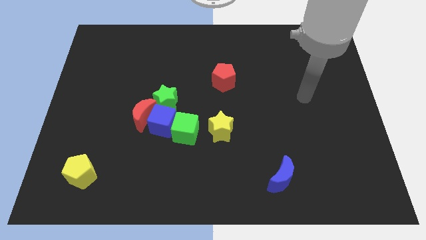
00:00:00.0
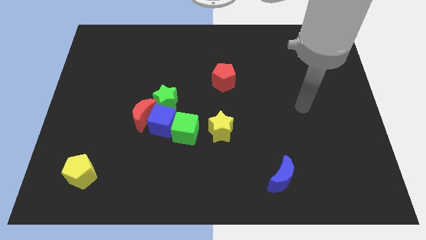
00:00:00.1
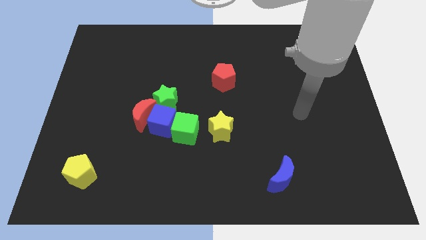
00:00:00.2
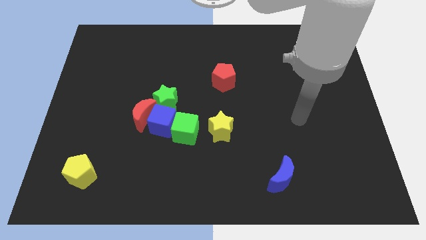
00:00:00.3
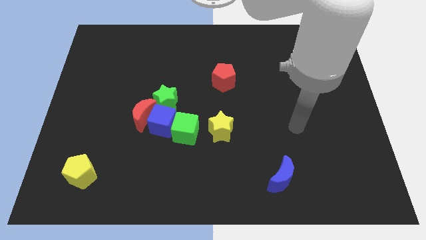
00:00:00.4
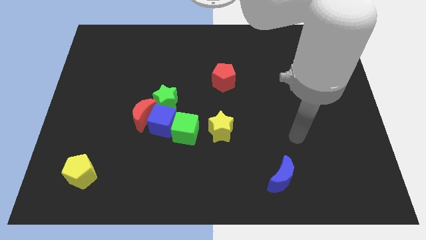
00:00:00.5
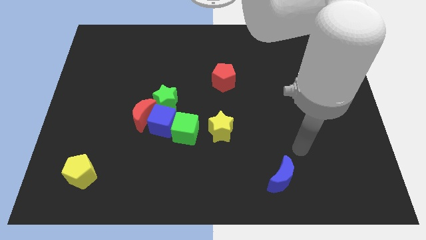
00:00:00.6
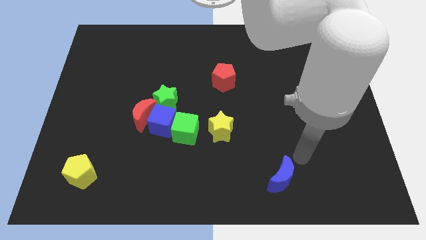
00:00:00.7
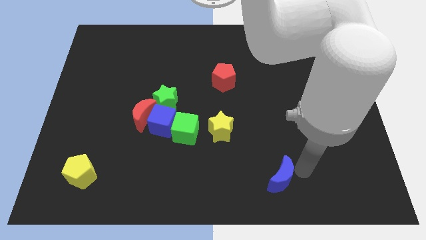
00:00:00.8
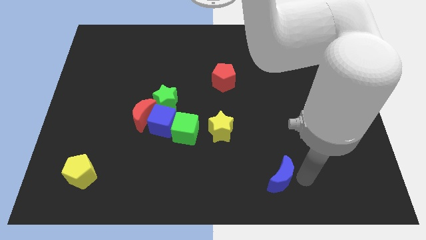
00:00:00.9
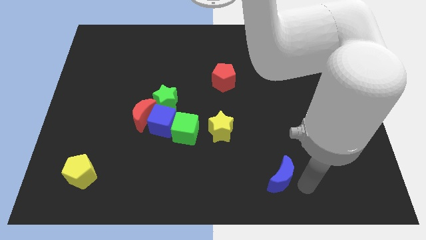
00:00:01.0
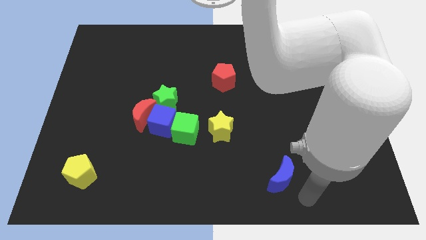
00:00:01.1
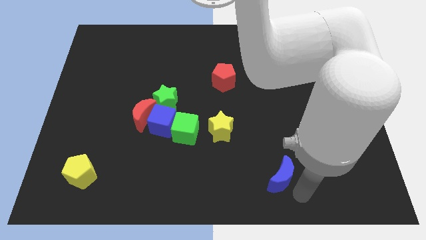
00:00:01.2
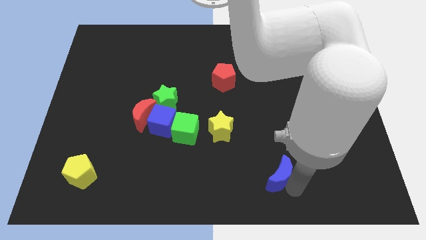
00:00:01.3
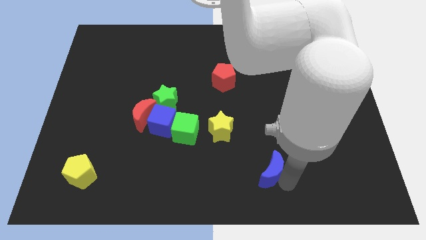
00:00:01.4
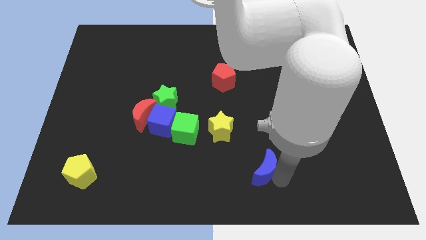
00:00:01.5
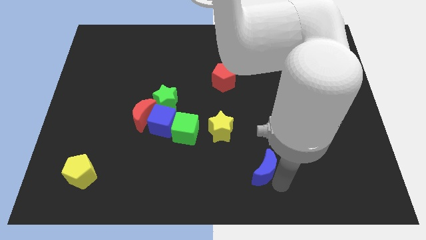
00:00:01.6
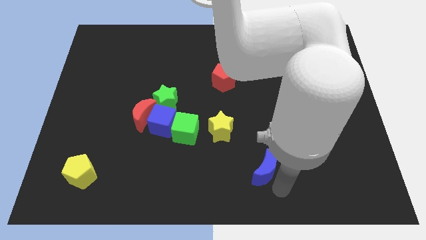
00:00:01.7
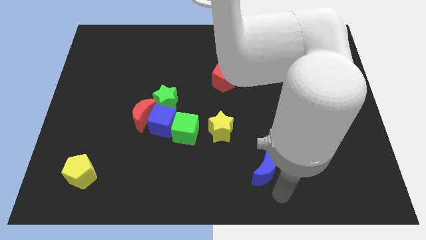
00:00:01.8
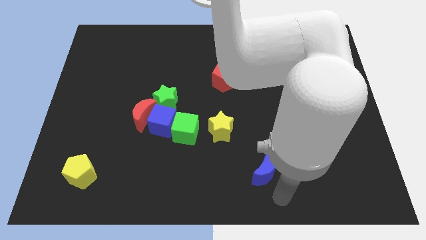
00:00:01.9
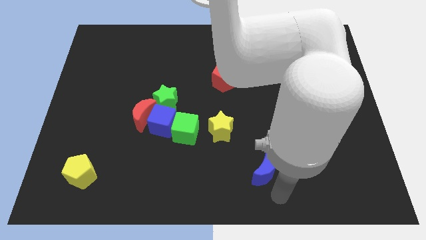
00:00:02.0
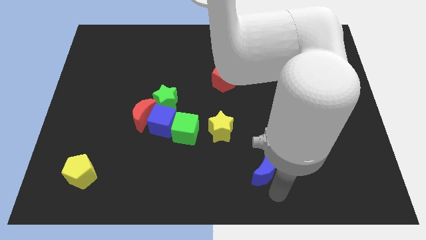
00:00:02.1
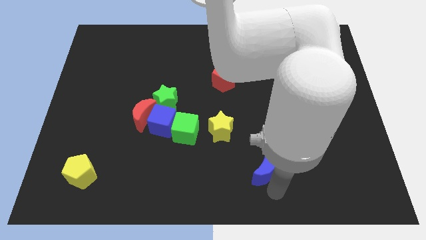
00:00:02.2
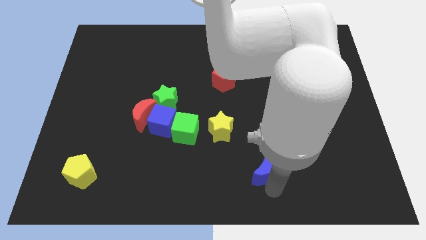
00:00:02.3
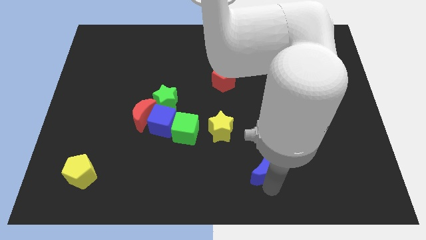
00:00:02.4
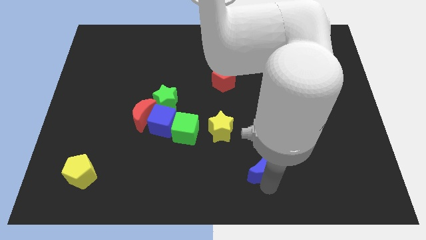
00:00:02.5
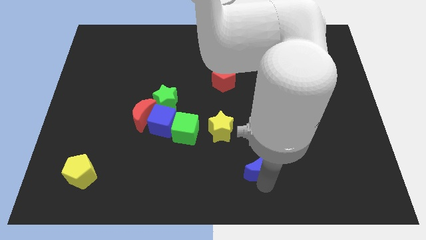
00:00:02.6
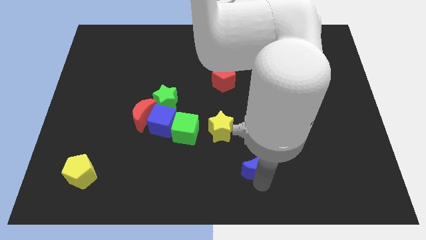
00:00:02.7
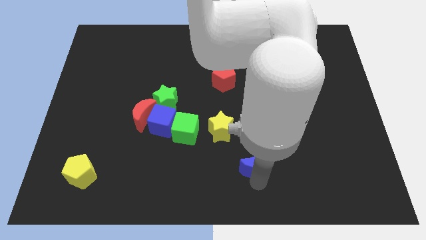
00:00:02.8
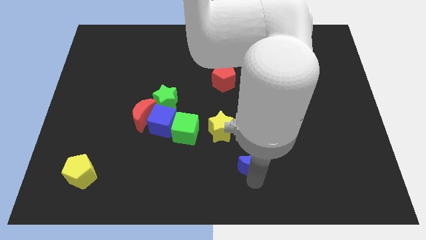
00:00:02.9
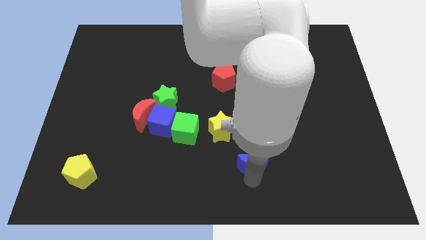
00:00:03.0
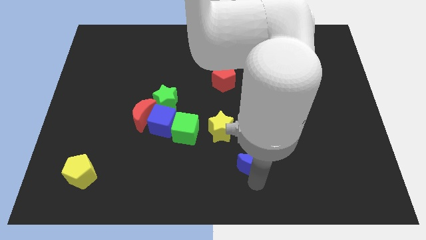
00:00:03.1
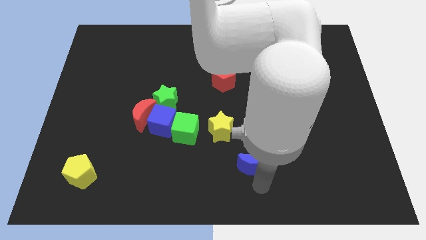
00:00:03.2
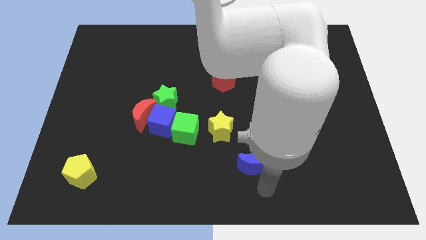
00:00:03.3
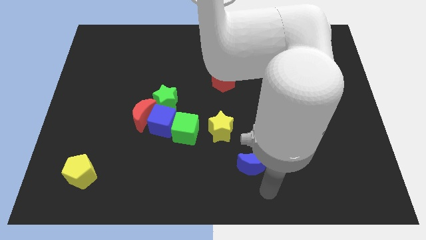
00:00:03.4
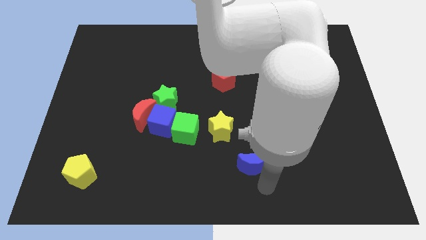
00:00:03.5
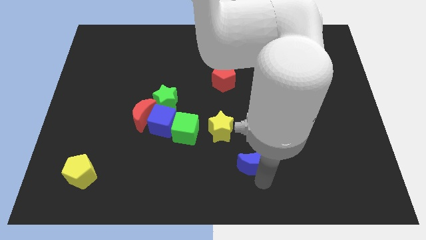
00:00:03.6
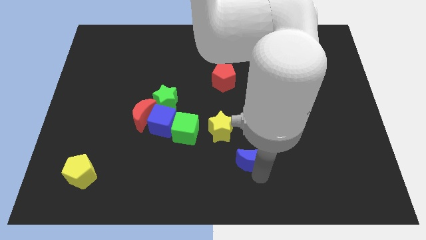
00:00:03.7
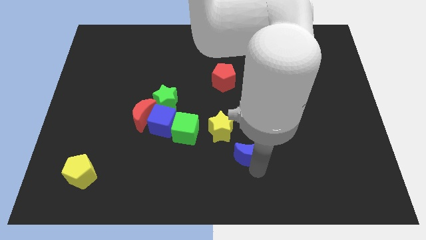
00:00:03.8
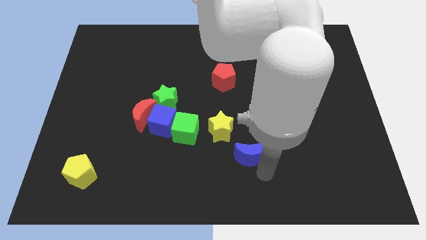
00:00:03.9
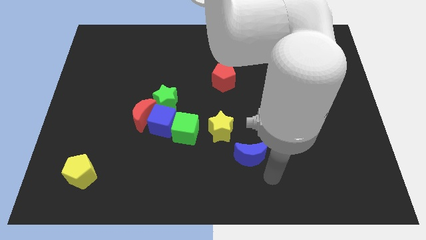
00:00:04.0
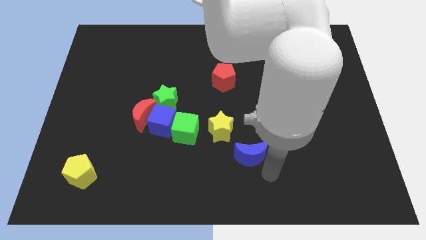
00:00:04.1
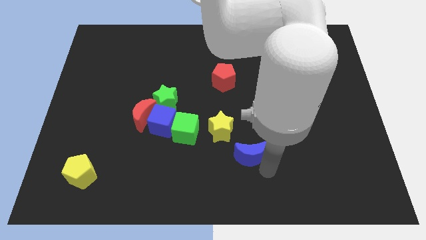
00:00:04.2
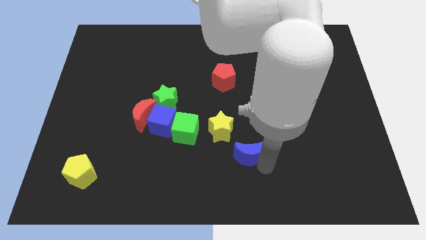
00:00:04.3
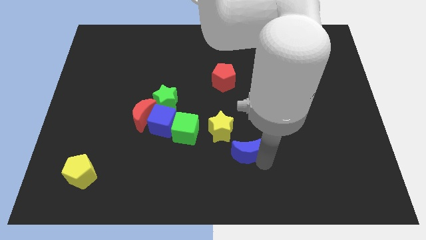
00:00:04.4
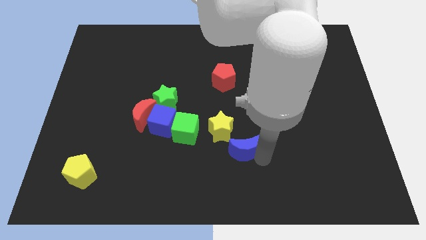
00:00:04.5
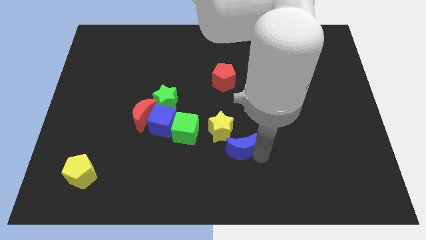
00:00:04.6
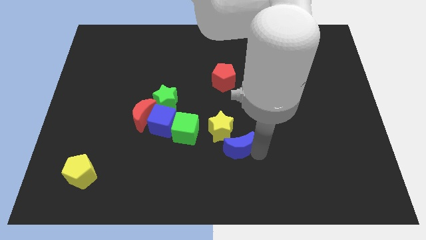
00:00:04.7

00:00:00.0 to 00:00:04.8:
move the blue moon next to the yellow star

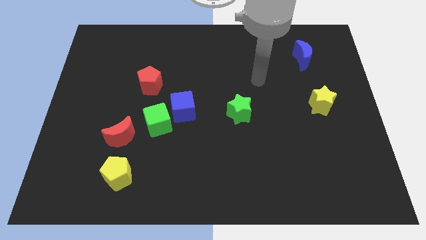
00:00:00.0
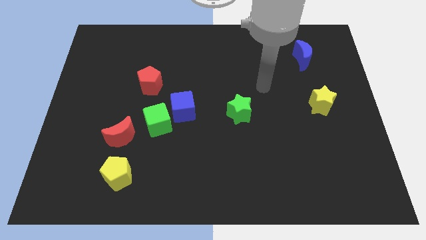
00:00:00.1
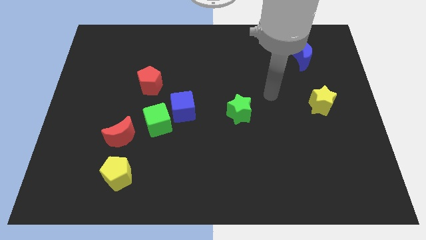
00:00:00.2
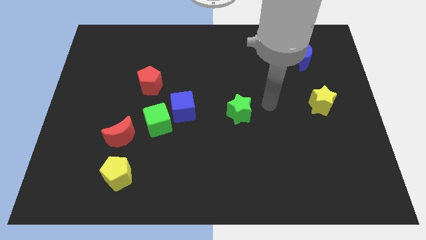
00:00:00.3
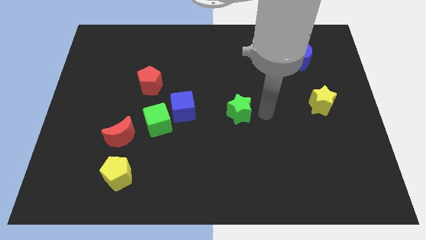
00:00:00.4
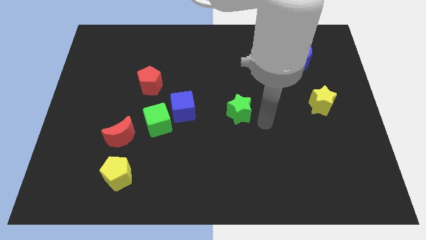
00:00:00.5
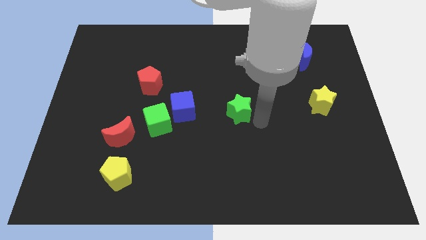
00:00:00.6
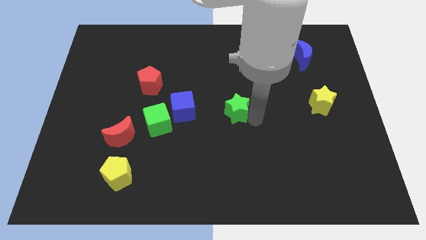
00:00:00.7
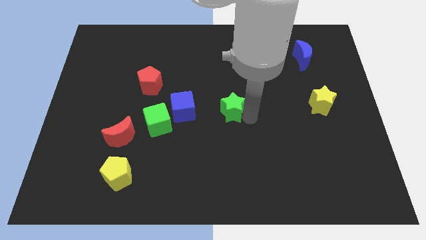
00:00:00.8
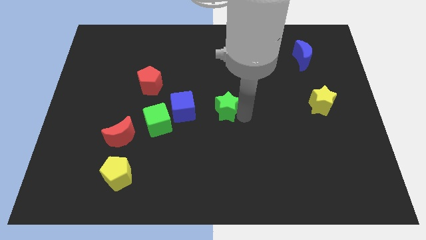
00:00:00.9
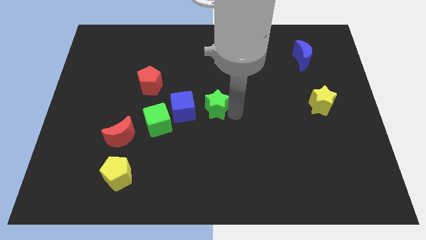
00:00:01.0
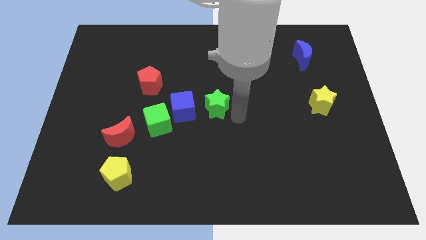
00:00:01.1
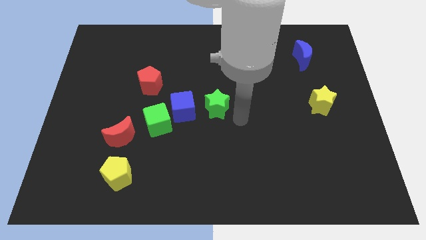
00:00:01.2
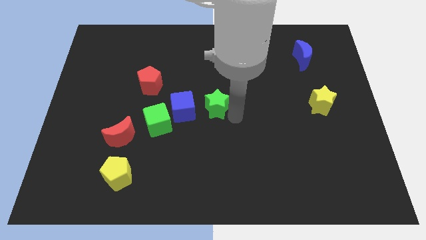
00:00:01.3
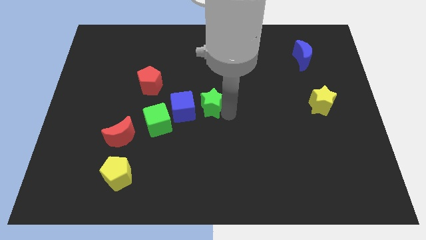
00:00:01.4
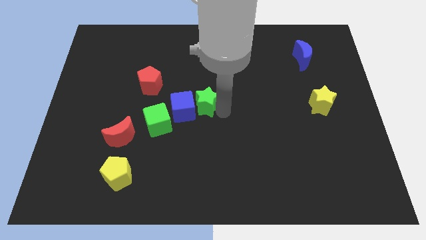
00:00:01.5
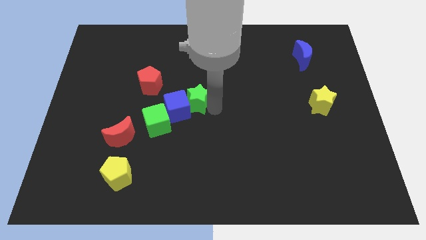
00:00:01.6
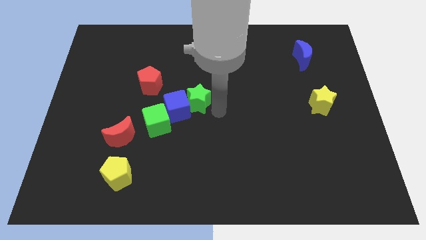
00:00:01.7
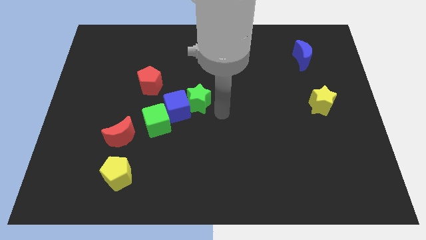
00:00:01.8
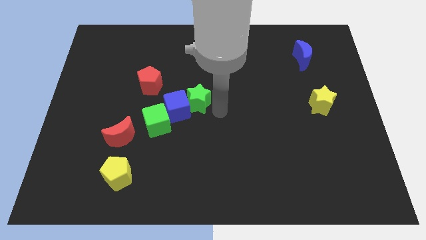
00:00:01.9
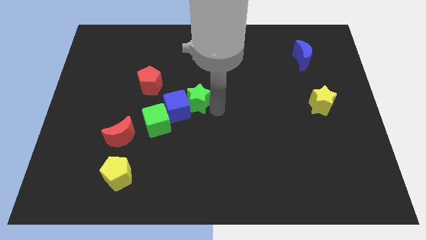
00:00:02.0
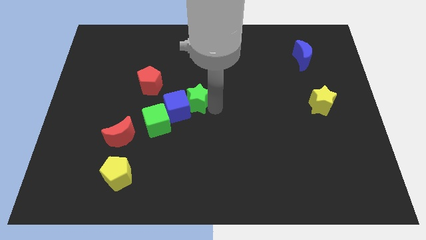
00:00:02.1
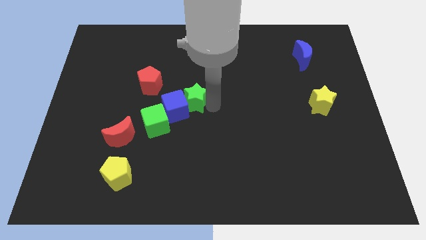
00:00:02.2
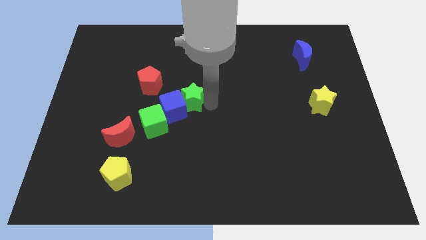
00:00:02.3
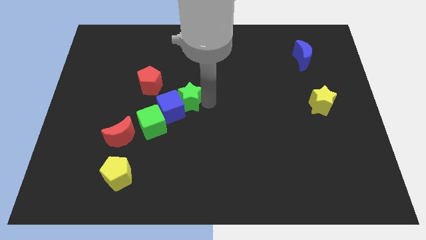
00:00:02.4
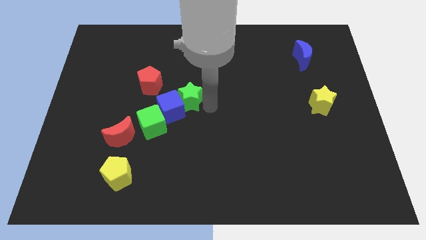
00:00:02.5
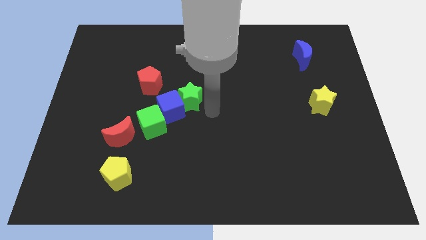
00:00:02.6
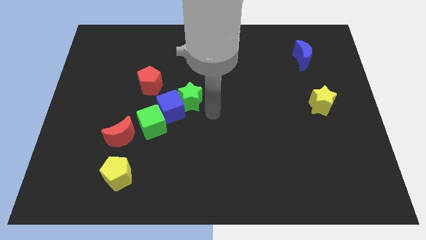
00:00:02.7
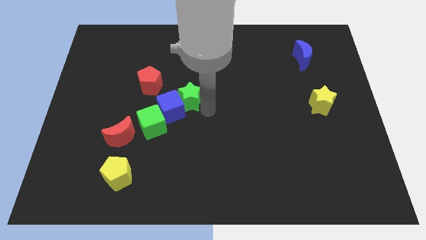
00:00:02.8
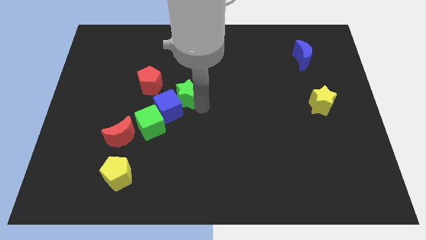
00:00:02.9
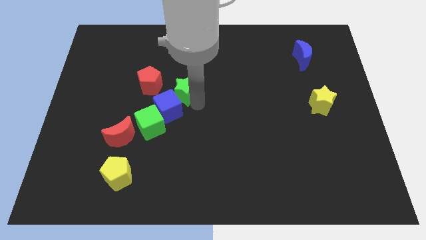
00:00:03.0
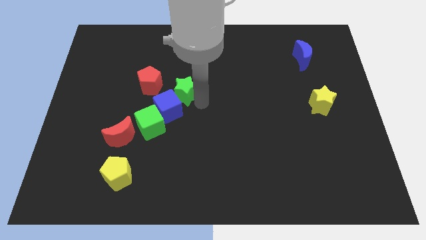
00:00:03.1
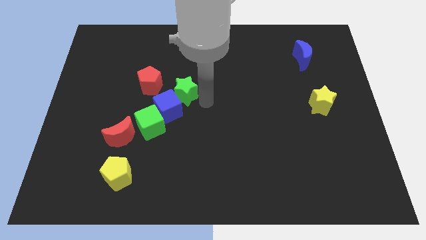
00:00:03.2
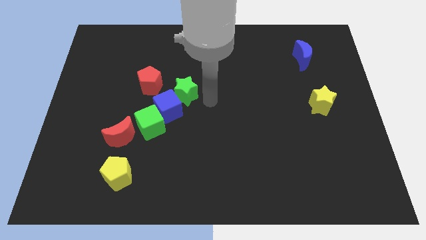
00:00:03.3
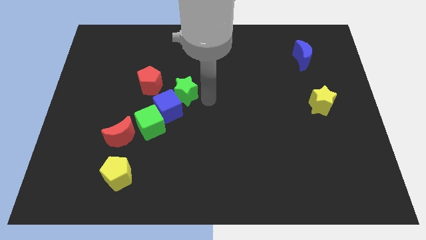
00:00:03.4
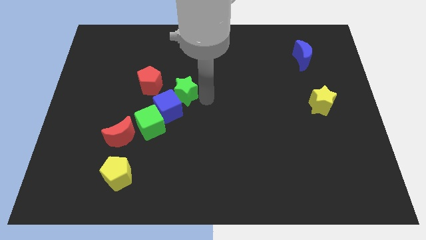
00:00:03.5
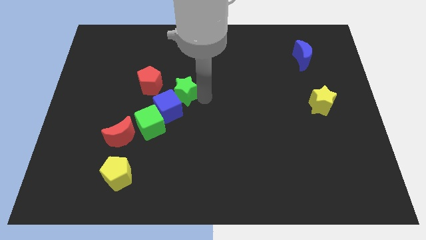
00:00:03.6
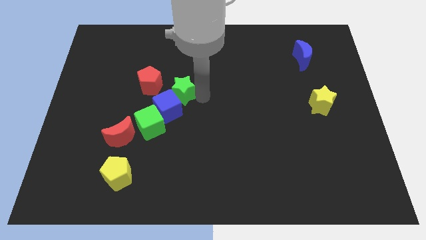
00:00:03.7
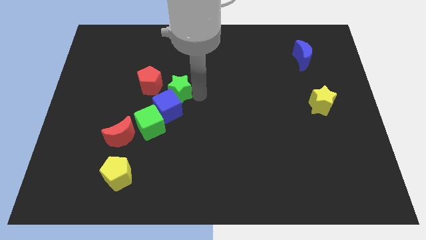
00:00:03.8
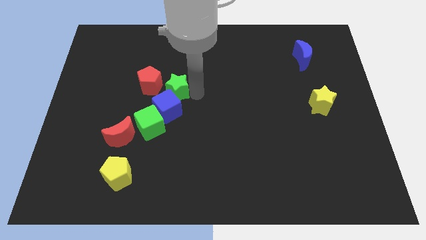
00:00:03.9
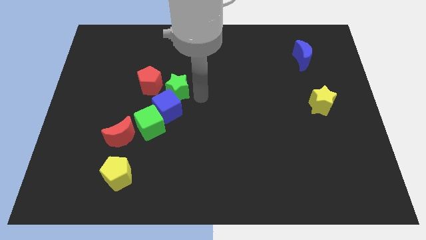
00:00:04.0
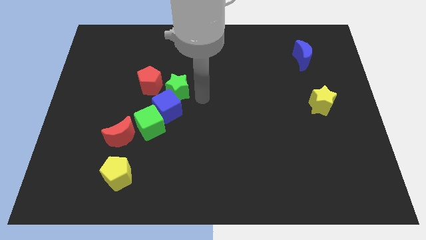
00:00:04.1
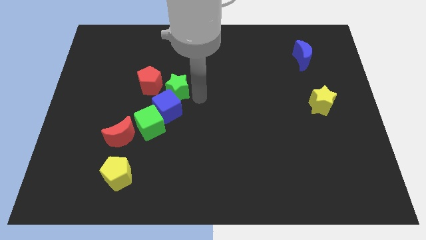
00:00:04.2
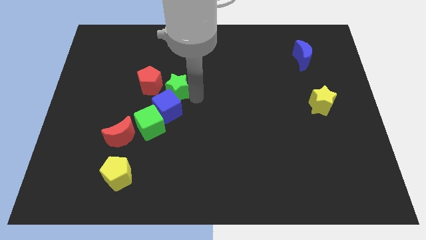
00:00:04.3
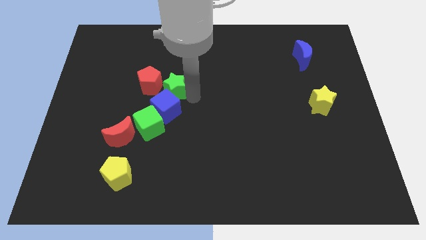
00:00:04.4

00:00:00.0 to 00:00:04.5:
put the green star close to the red pentagon
